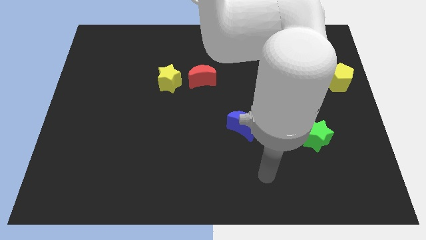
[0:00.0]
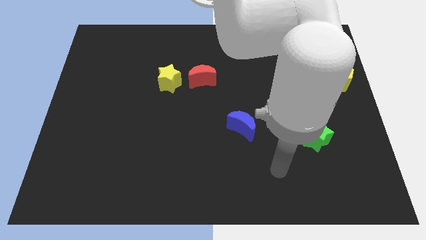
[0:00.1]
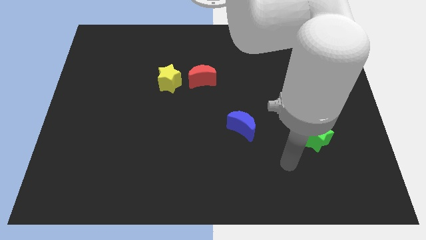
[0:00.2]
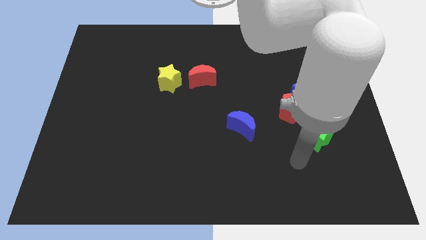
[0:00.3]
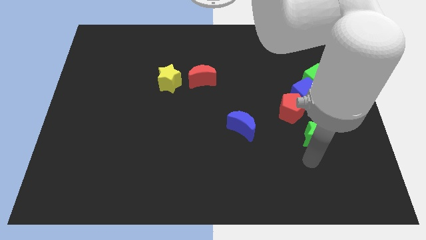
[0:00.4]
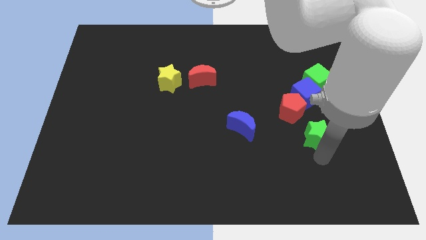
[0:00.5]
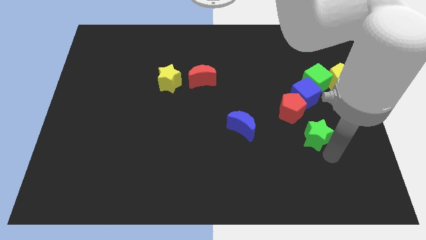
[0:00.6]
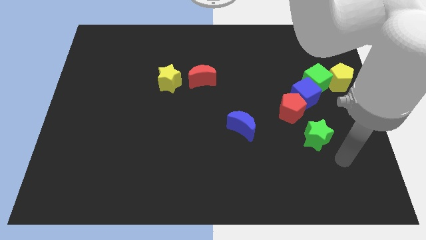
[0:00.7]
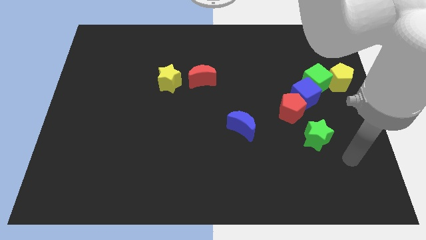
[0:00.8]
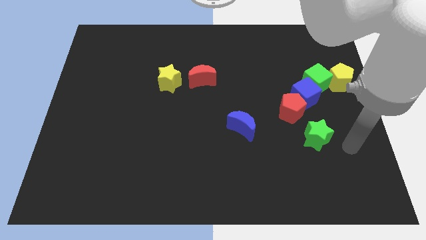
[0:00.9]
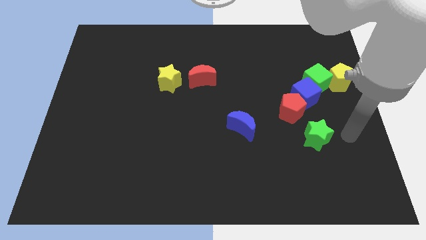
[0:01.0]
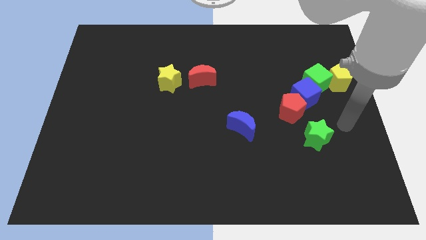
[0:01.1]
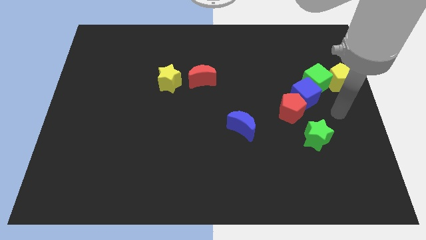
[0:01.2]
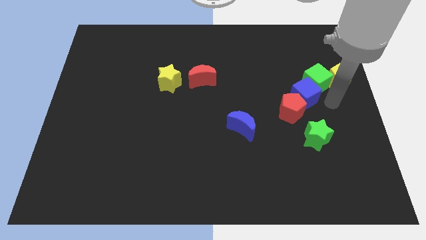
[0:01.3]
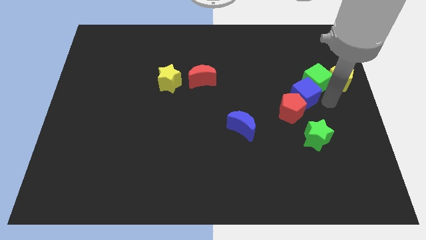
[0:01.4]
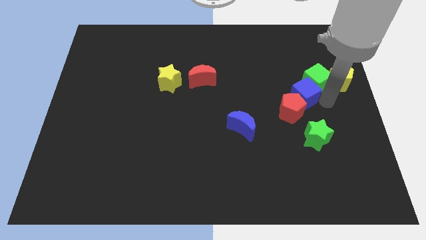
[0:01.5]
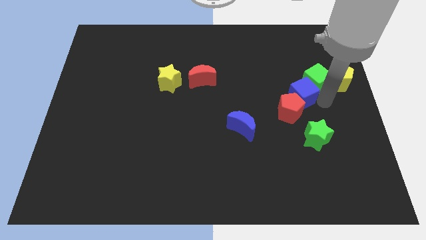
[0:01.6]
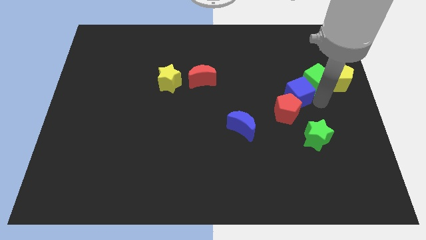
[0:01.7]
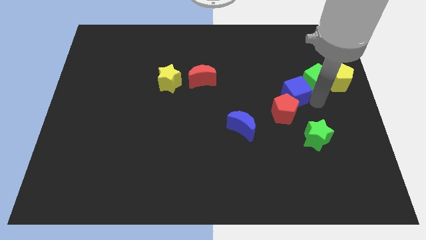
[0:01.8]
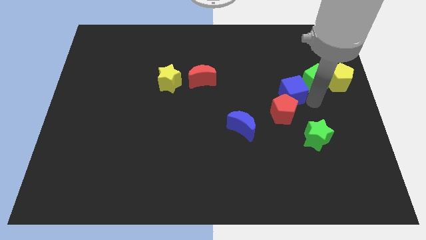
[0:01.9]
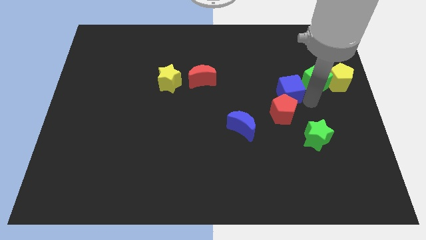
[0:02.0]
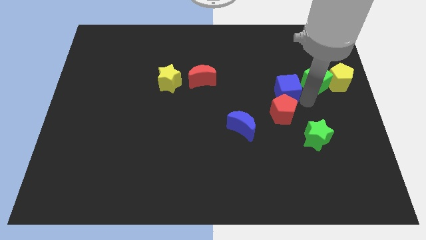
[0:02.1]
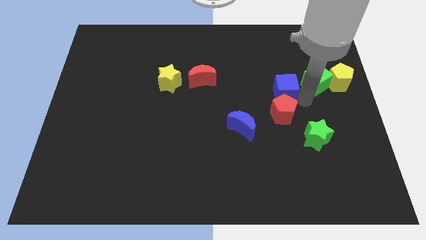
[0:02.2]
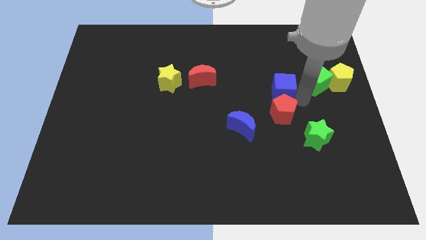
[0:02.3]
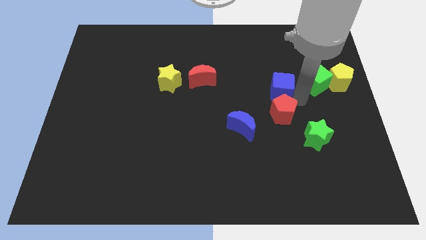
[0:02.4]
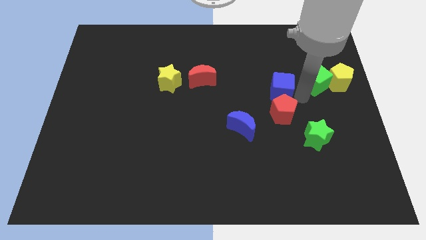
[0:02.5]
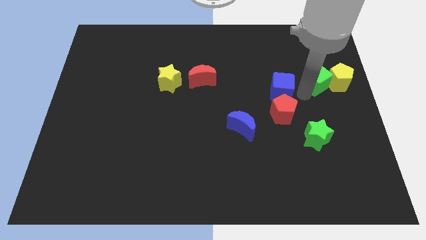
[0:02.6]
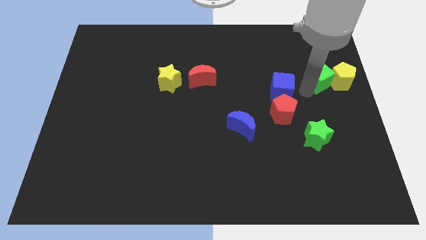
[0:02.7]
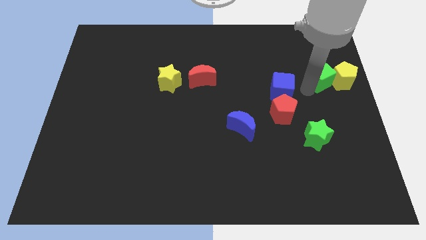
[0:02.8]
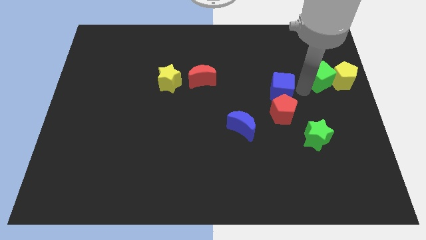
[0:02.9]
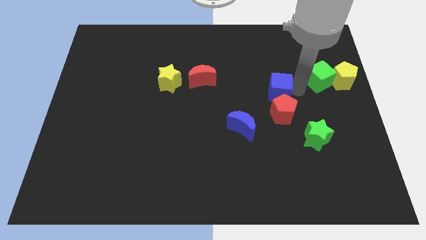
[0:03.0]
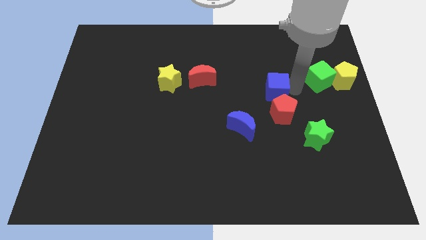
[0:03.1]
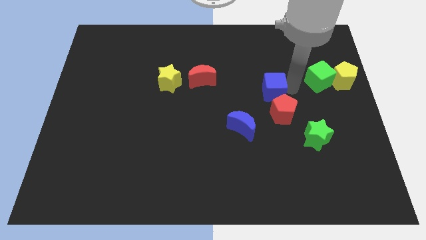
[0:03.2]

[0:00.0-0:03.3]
slightly move the blue cube to the left

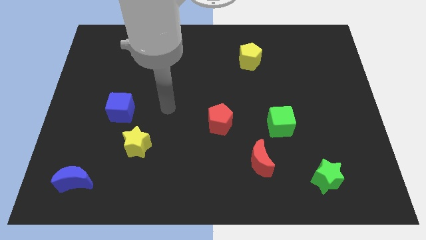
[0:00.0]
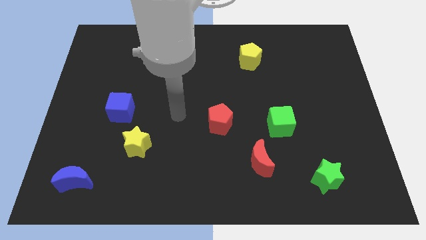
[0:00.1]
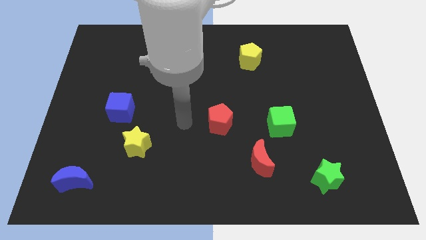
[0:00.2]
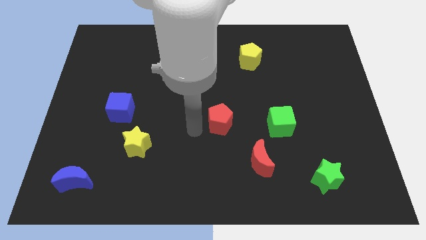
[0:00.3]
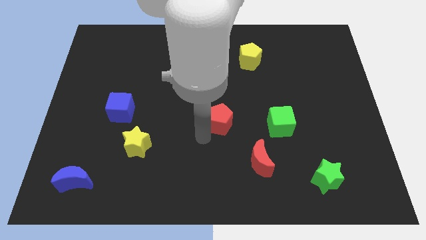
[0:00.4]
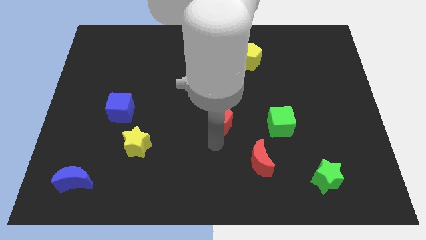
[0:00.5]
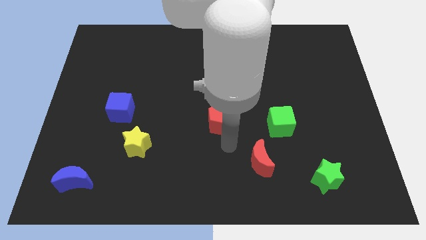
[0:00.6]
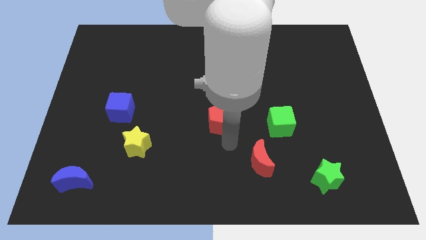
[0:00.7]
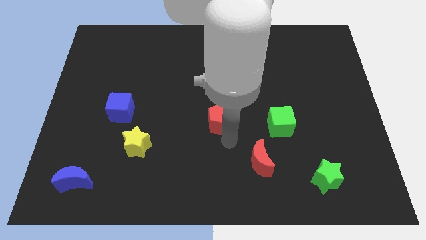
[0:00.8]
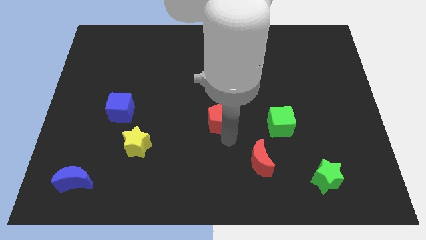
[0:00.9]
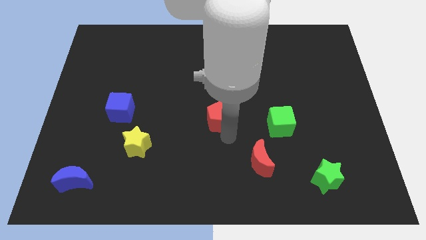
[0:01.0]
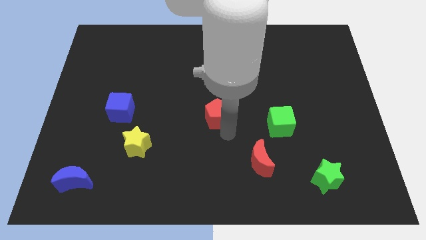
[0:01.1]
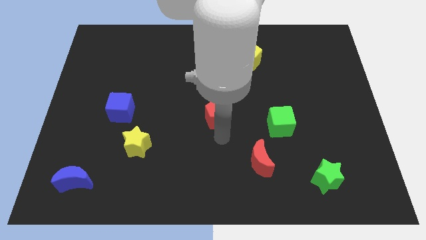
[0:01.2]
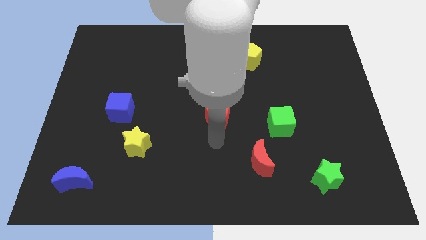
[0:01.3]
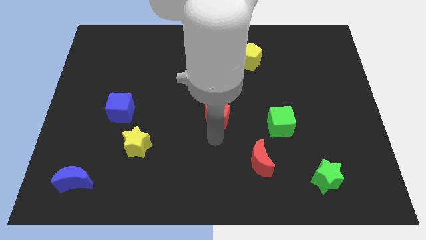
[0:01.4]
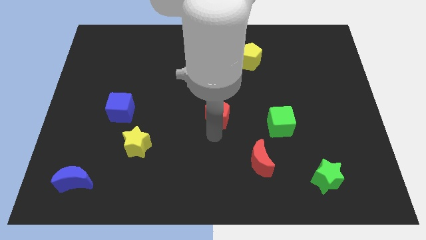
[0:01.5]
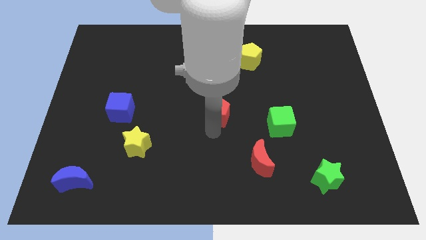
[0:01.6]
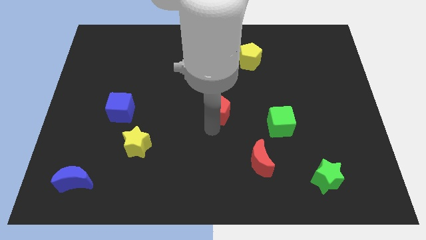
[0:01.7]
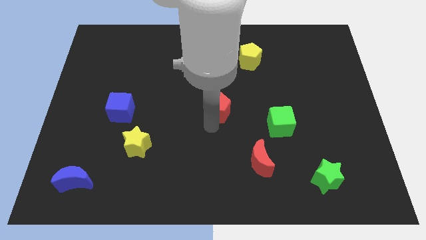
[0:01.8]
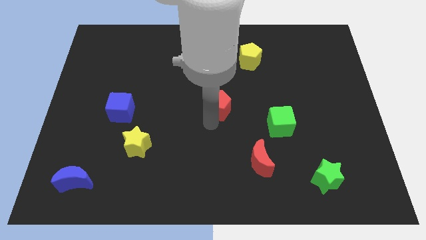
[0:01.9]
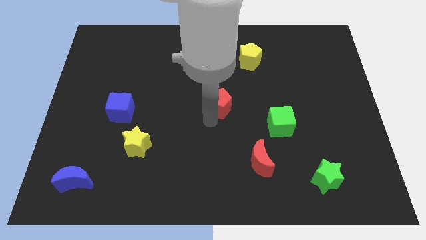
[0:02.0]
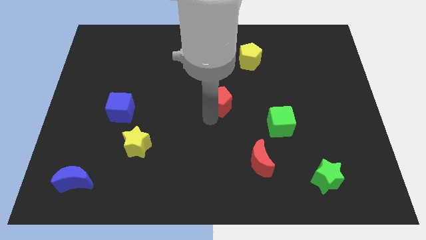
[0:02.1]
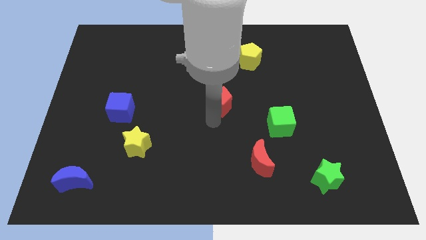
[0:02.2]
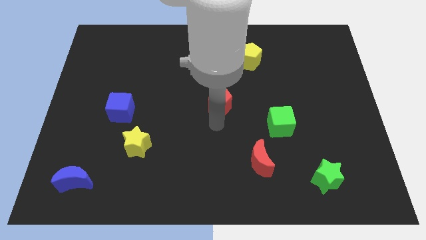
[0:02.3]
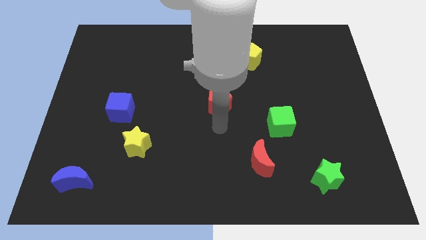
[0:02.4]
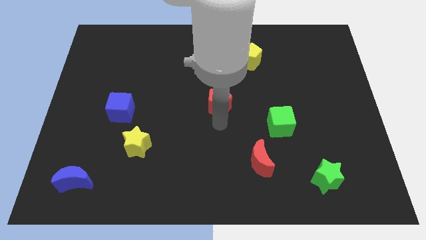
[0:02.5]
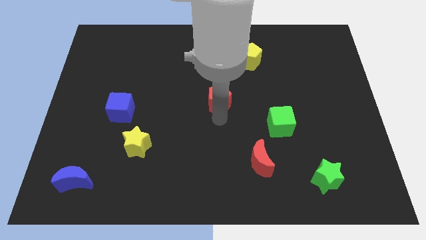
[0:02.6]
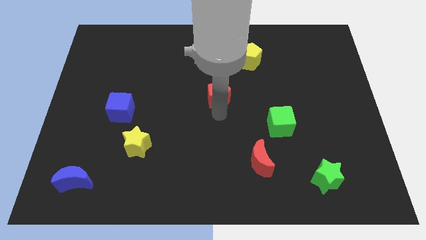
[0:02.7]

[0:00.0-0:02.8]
slightly push the red pentagon up

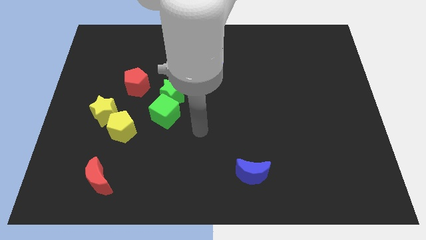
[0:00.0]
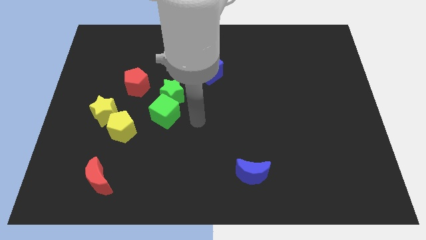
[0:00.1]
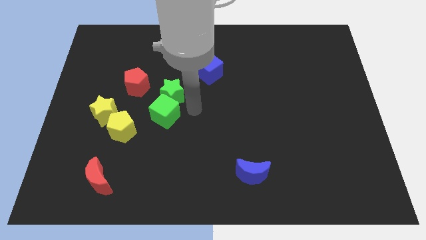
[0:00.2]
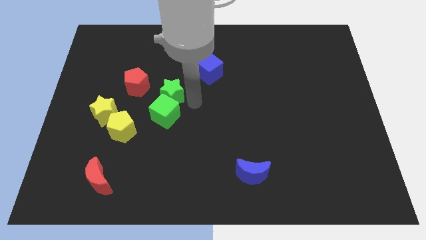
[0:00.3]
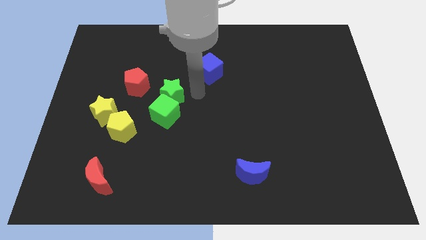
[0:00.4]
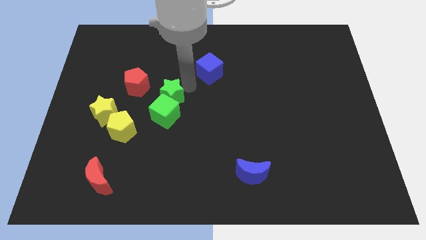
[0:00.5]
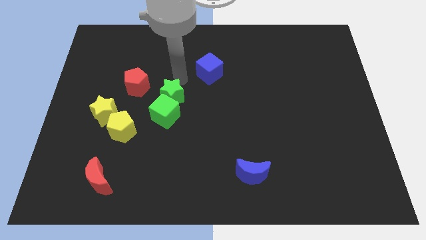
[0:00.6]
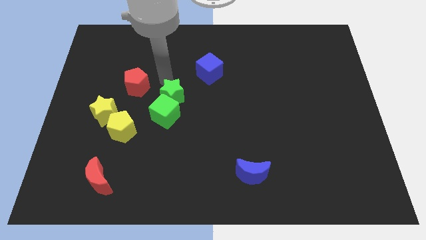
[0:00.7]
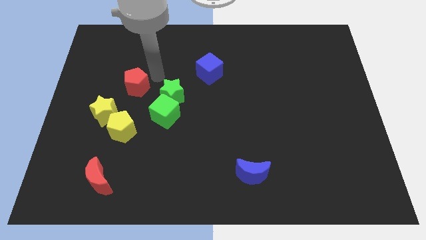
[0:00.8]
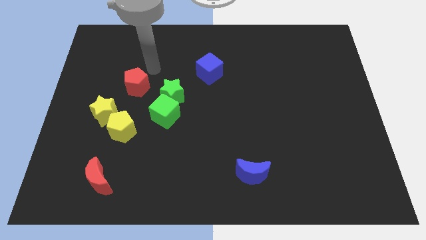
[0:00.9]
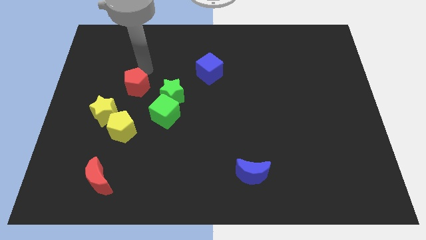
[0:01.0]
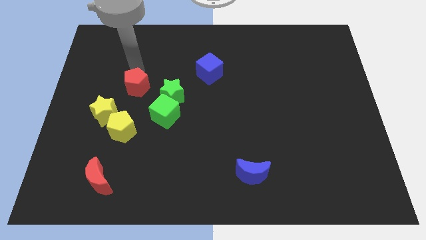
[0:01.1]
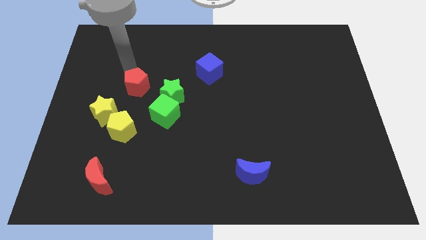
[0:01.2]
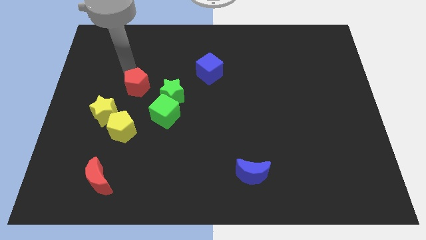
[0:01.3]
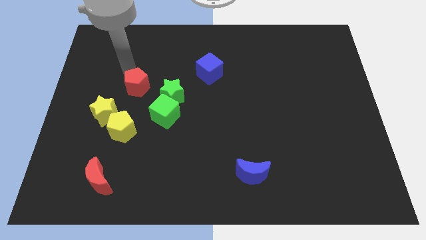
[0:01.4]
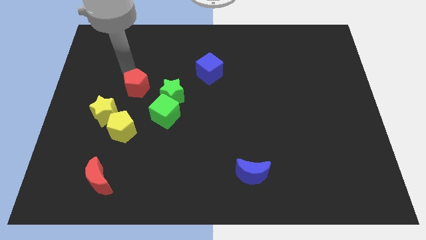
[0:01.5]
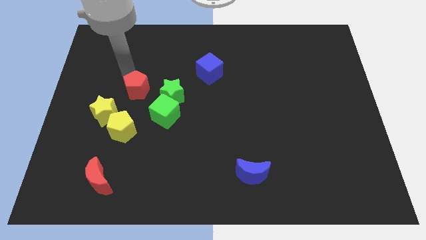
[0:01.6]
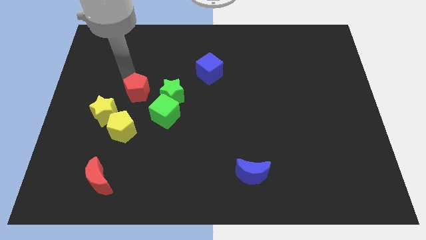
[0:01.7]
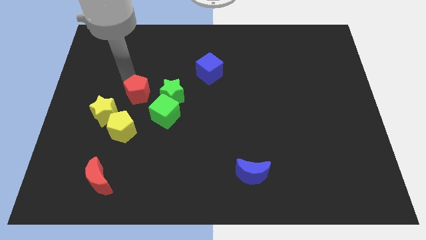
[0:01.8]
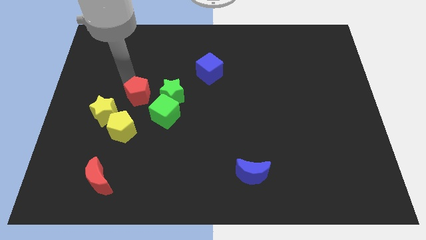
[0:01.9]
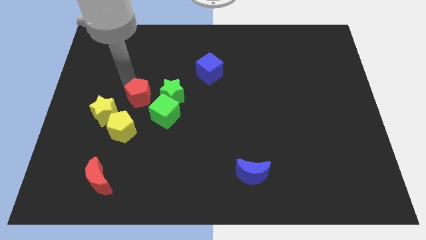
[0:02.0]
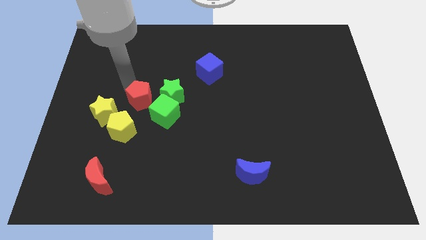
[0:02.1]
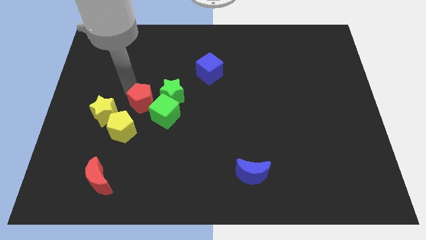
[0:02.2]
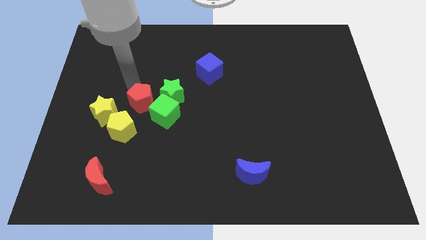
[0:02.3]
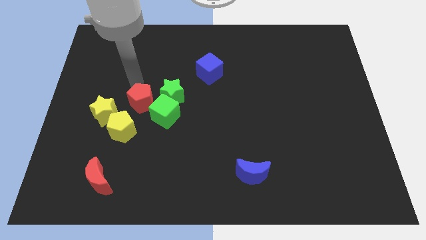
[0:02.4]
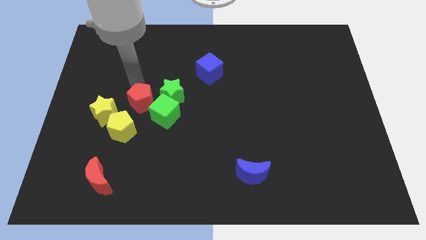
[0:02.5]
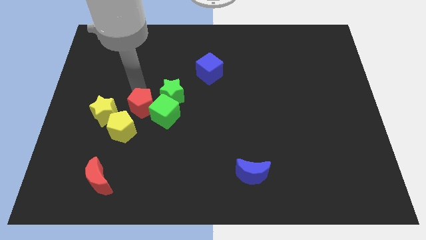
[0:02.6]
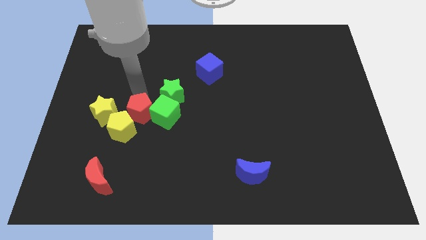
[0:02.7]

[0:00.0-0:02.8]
move the red pentagon downwards slightly
